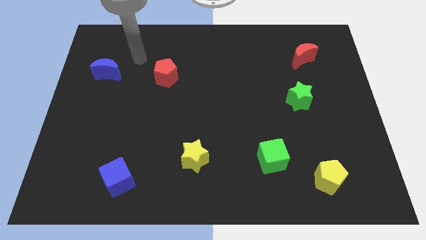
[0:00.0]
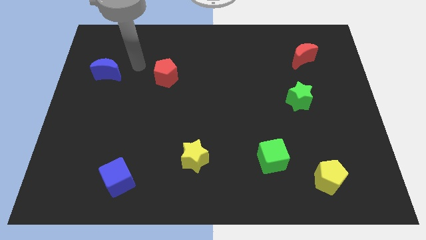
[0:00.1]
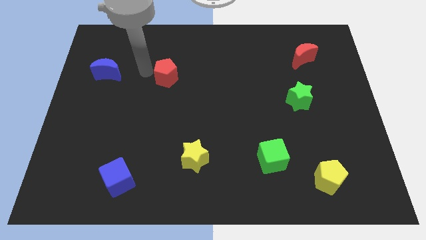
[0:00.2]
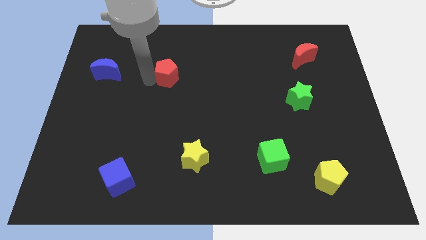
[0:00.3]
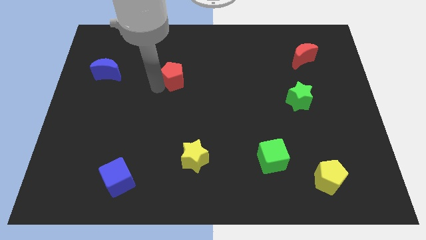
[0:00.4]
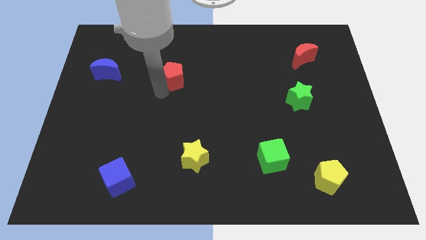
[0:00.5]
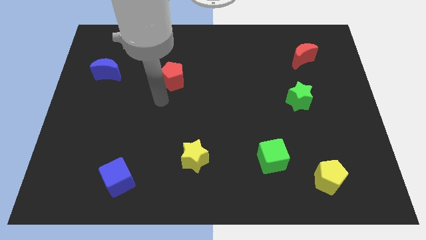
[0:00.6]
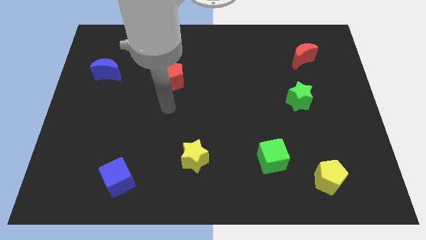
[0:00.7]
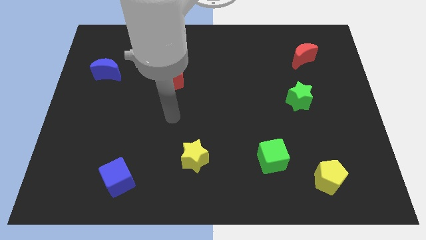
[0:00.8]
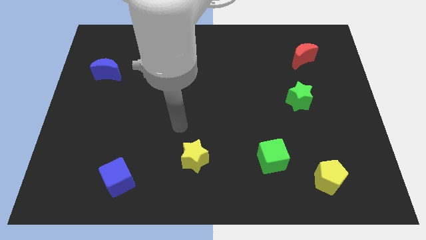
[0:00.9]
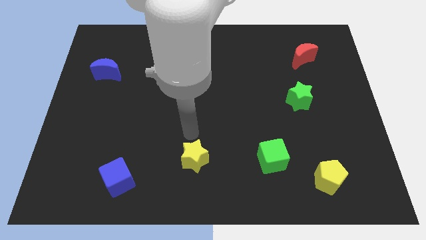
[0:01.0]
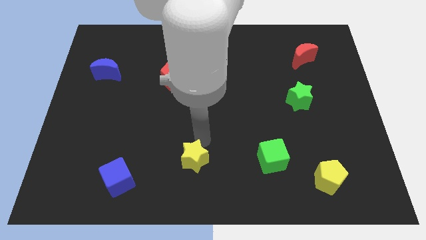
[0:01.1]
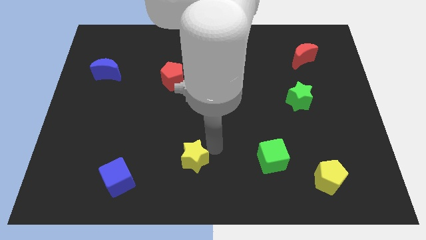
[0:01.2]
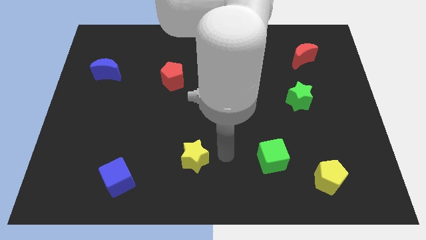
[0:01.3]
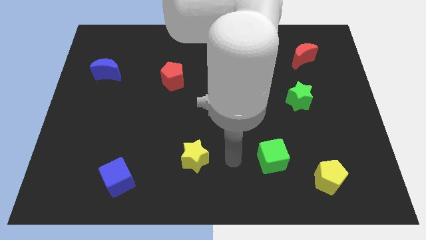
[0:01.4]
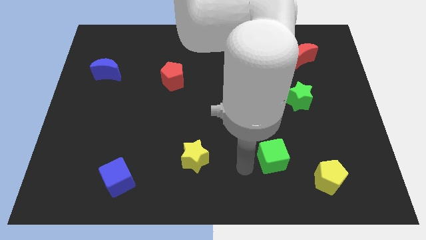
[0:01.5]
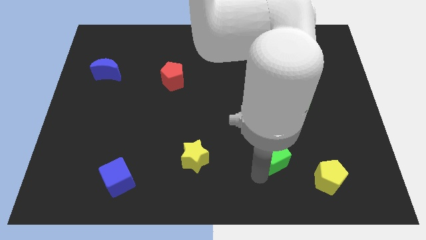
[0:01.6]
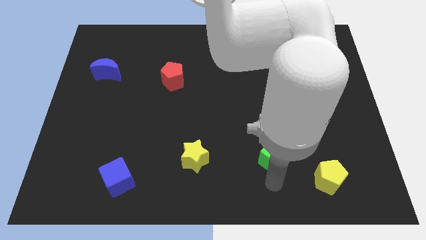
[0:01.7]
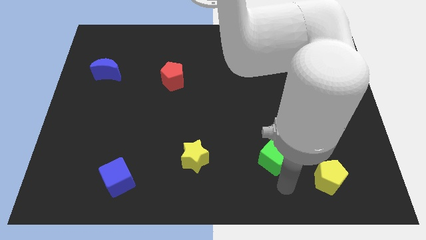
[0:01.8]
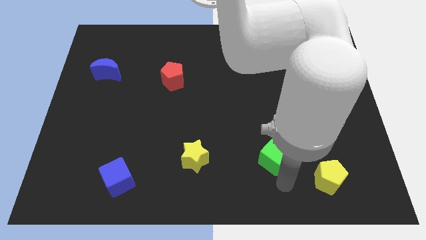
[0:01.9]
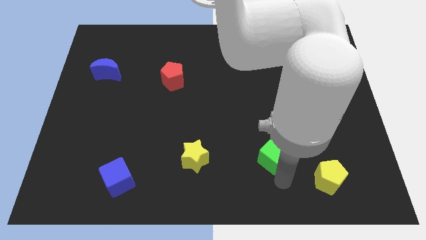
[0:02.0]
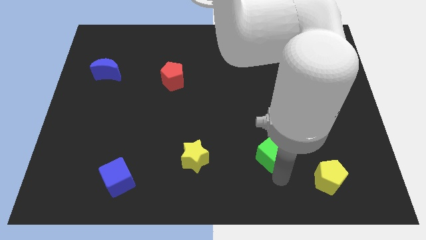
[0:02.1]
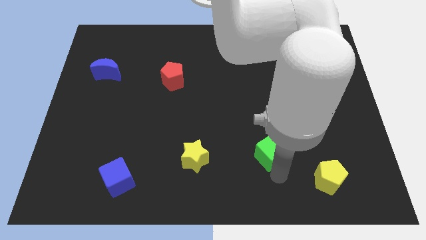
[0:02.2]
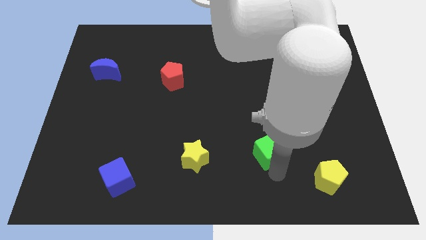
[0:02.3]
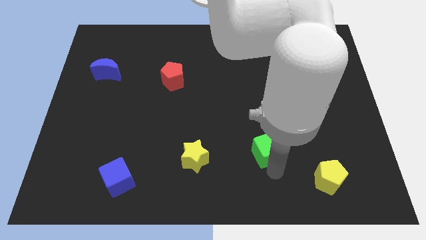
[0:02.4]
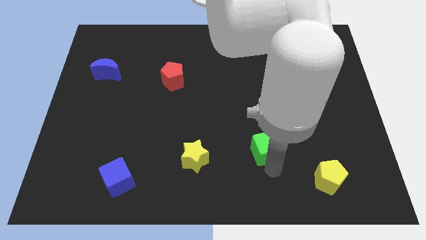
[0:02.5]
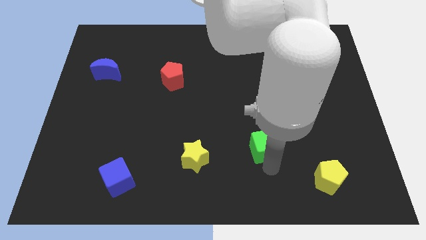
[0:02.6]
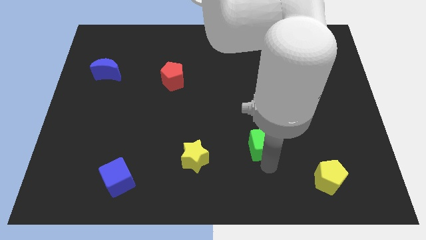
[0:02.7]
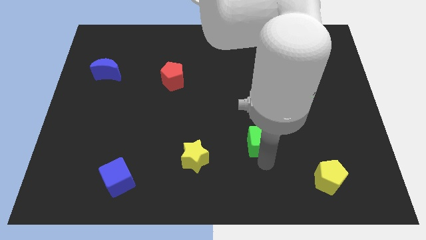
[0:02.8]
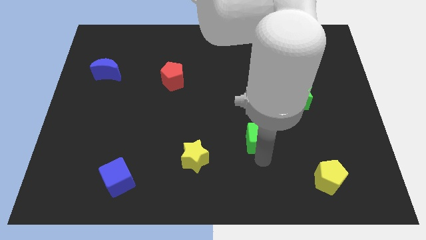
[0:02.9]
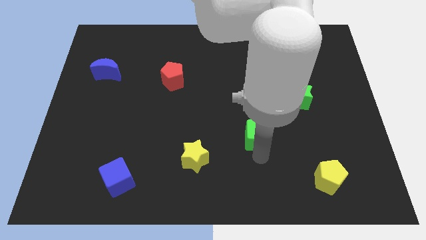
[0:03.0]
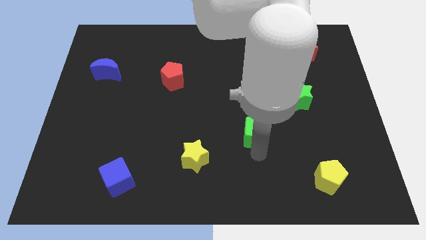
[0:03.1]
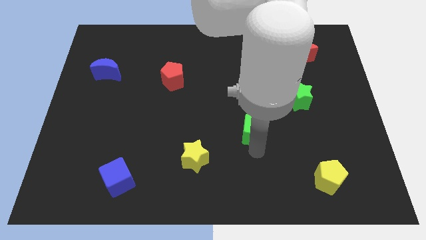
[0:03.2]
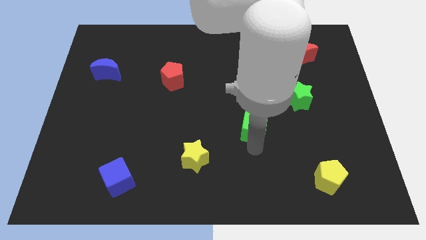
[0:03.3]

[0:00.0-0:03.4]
slightly move the green cube up

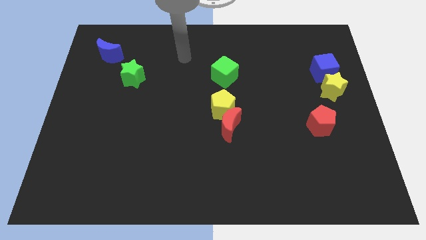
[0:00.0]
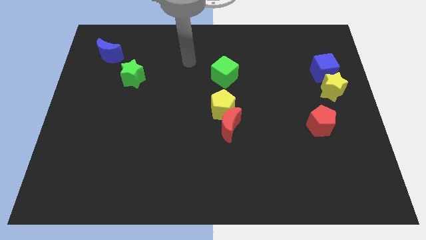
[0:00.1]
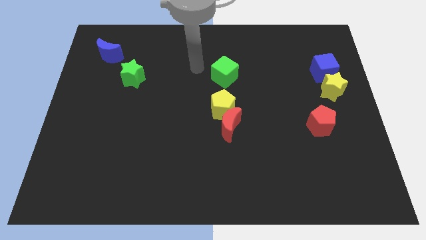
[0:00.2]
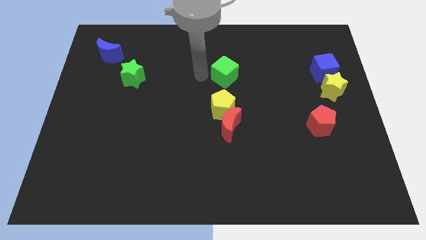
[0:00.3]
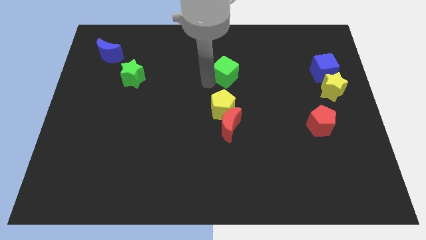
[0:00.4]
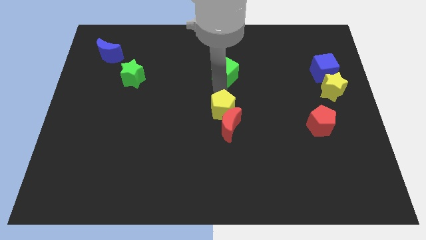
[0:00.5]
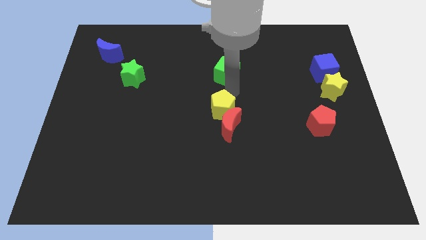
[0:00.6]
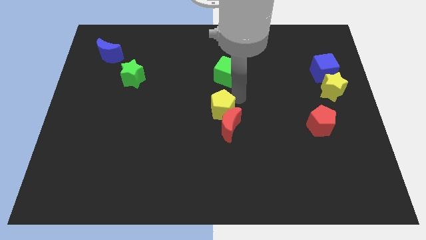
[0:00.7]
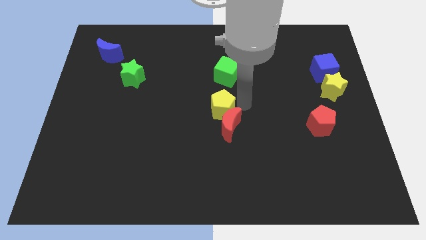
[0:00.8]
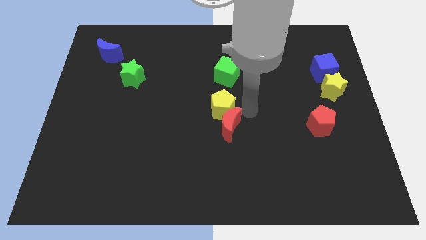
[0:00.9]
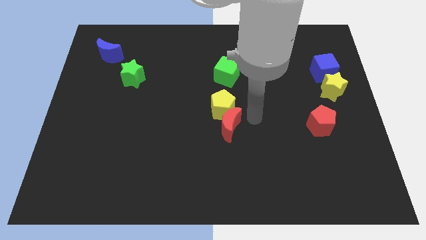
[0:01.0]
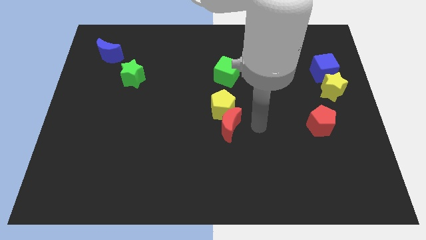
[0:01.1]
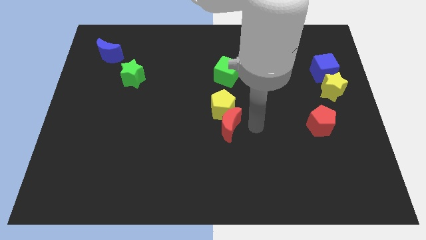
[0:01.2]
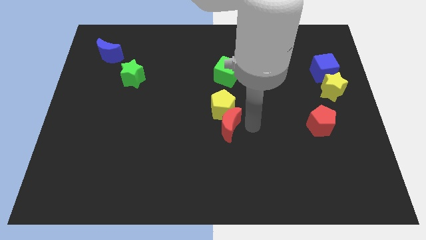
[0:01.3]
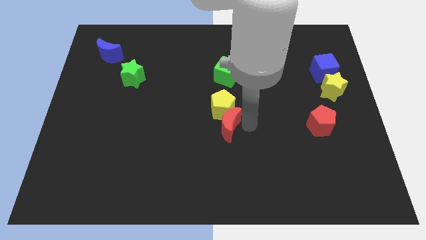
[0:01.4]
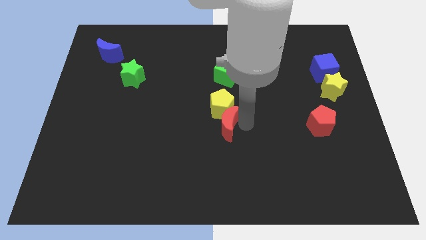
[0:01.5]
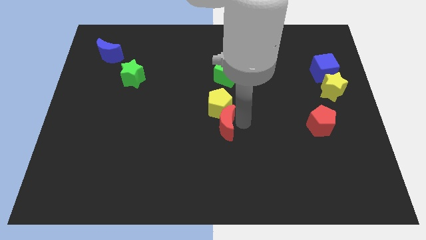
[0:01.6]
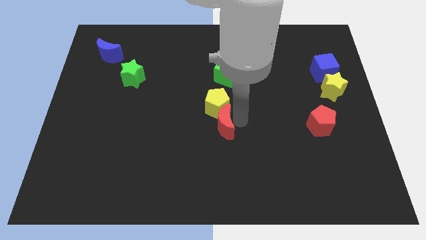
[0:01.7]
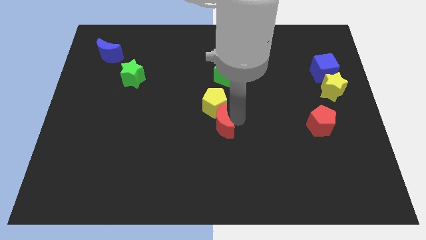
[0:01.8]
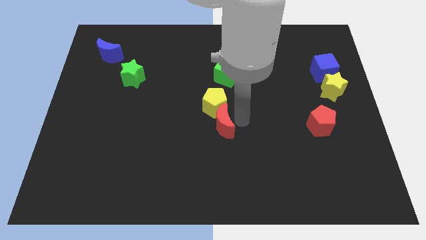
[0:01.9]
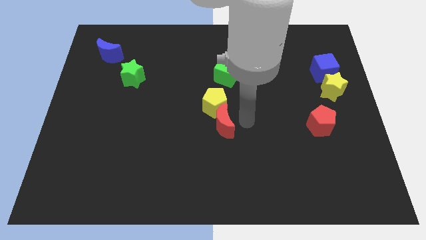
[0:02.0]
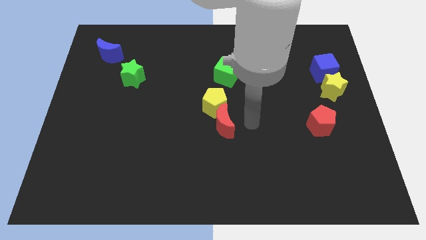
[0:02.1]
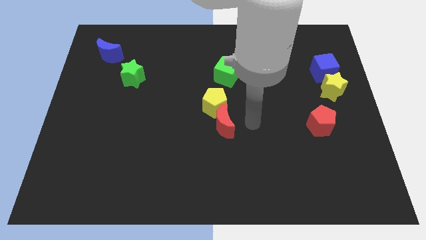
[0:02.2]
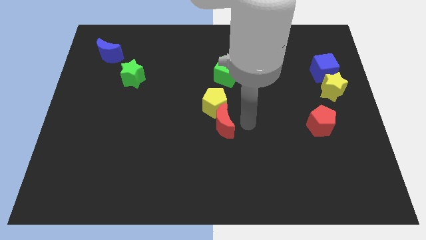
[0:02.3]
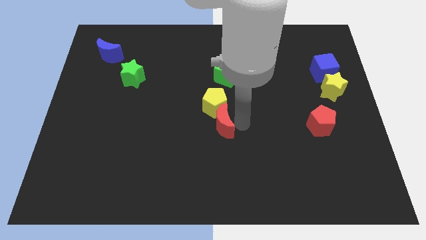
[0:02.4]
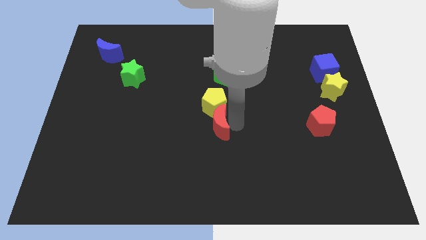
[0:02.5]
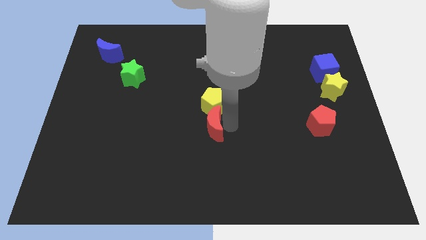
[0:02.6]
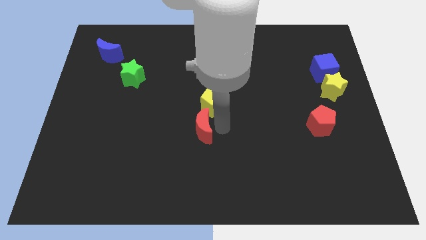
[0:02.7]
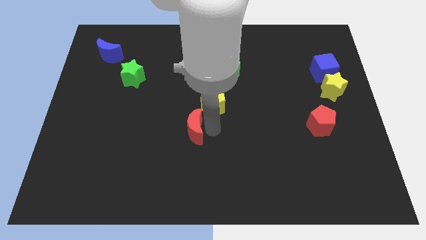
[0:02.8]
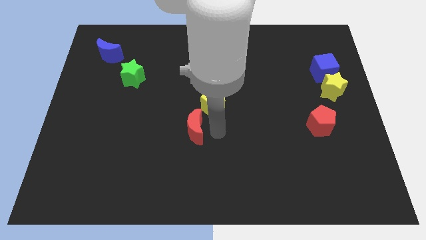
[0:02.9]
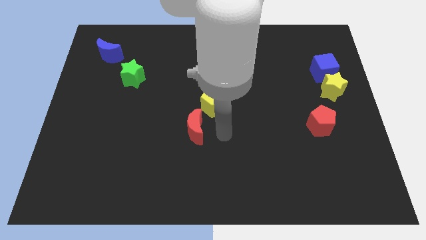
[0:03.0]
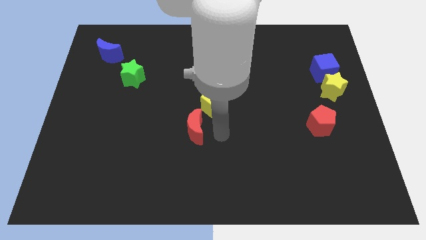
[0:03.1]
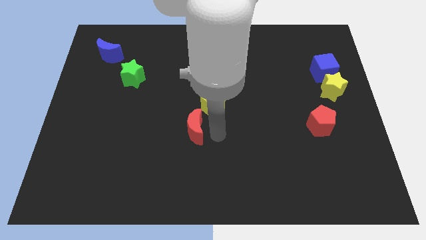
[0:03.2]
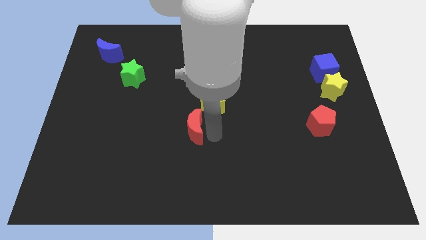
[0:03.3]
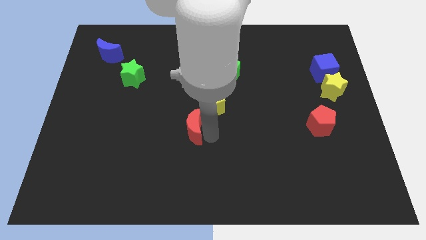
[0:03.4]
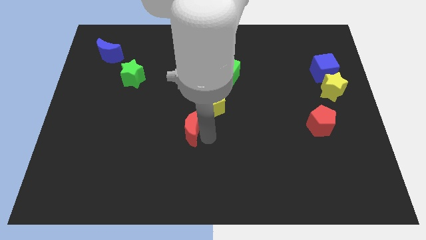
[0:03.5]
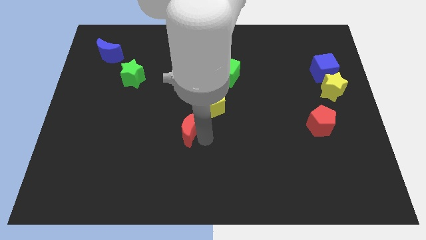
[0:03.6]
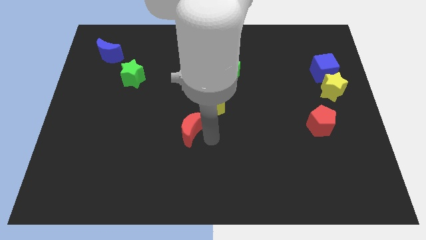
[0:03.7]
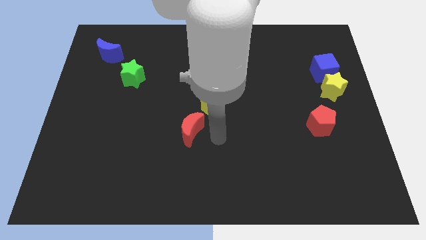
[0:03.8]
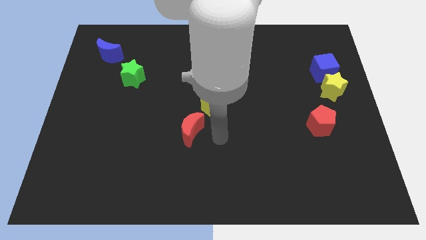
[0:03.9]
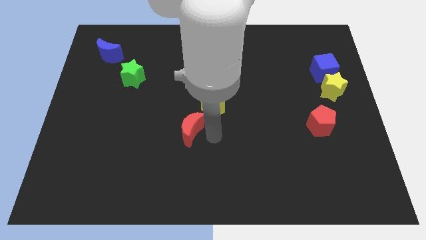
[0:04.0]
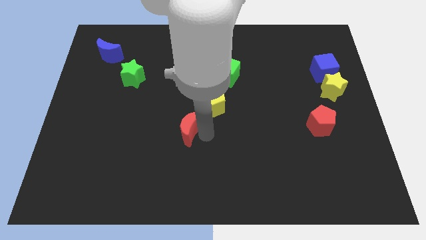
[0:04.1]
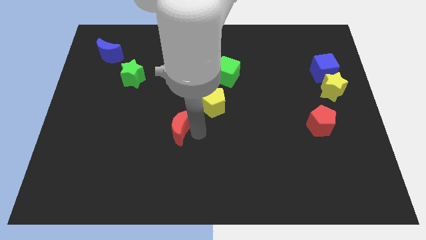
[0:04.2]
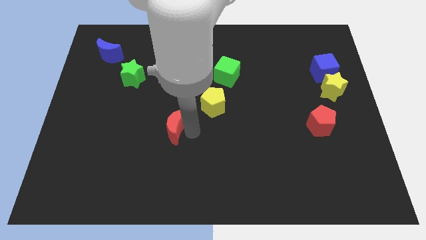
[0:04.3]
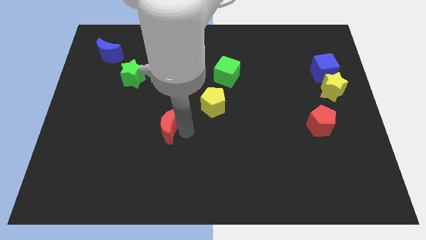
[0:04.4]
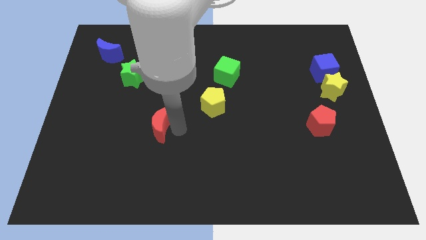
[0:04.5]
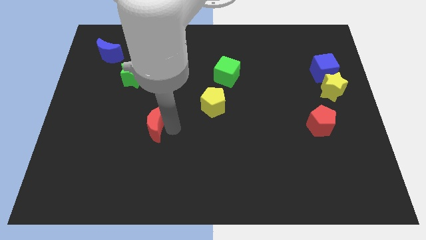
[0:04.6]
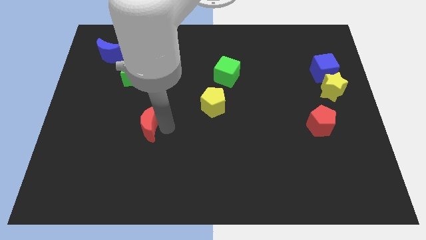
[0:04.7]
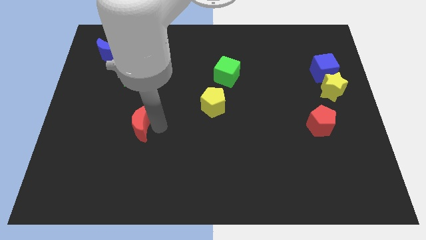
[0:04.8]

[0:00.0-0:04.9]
push the red moon left

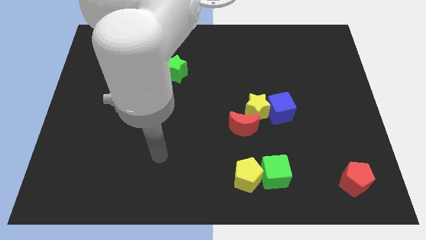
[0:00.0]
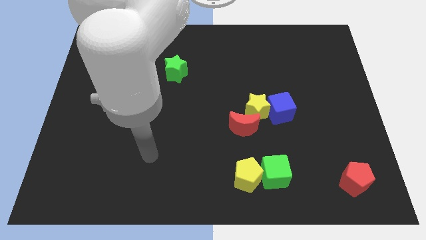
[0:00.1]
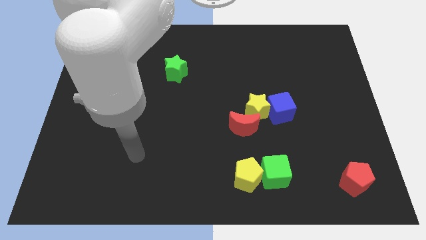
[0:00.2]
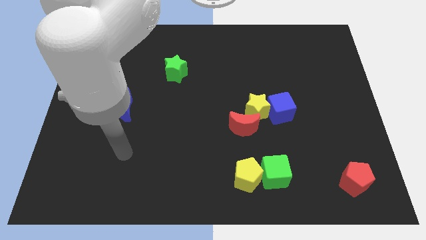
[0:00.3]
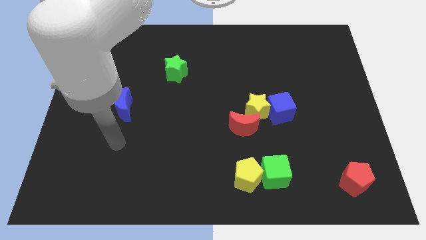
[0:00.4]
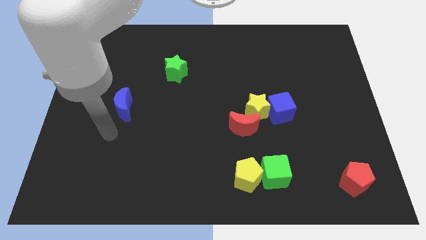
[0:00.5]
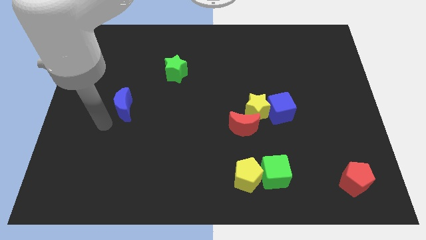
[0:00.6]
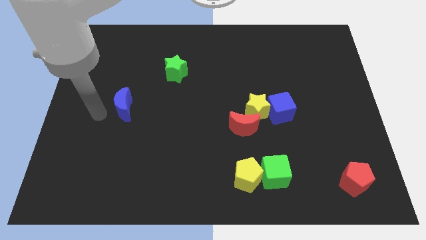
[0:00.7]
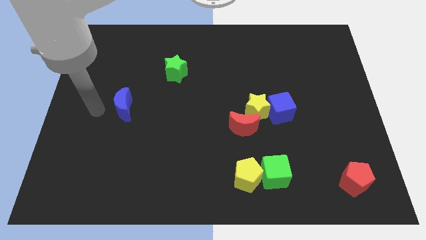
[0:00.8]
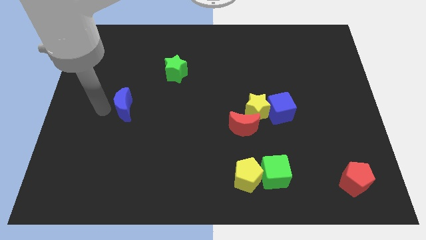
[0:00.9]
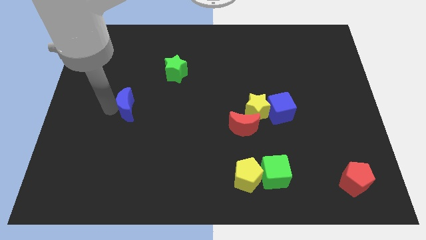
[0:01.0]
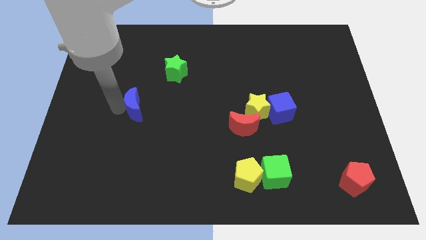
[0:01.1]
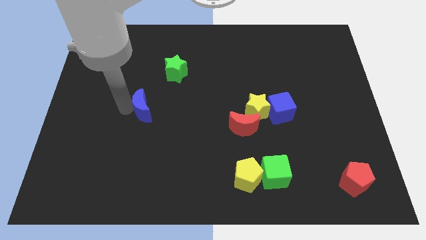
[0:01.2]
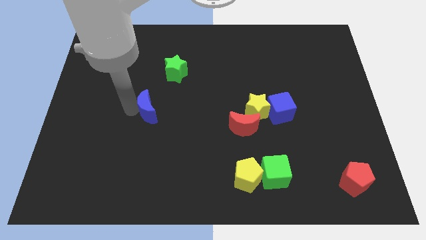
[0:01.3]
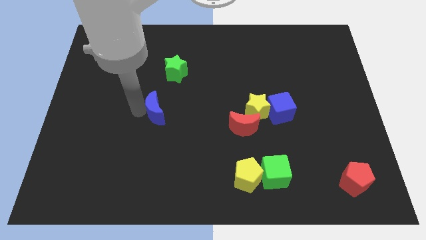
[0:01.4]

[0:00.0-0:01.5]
move the blue moon somewhat right
